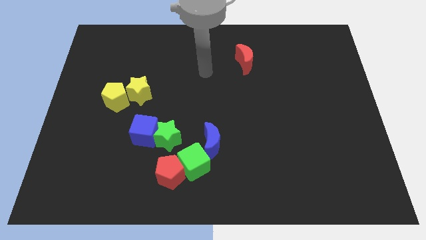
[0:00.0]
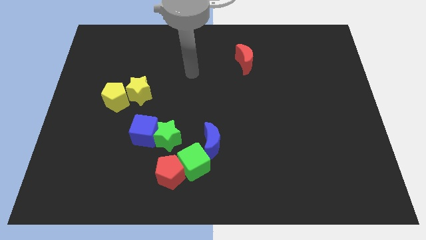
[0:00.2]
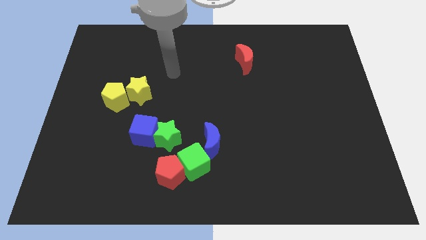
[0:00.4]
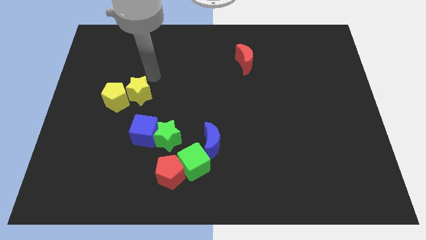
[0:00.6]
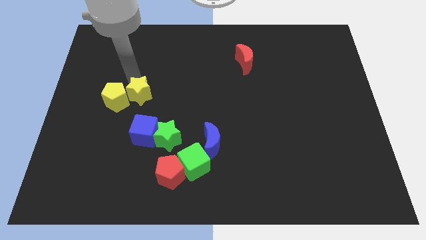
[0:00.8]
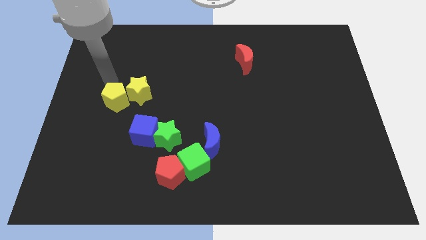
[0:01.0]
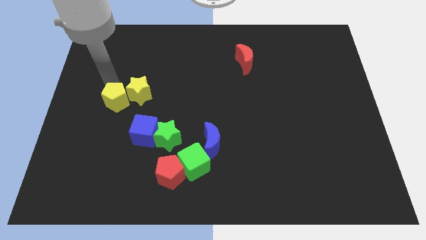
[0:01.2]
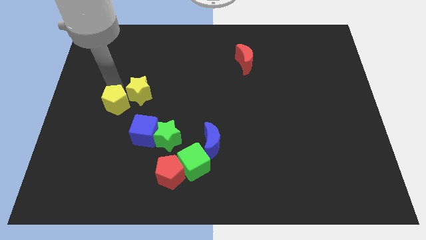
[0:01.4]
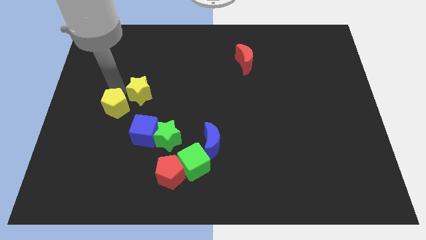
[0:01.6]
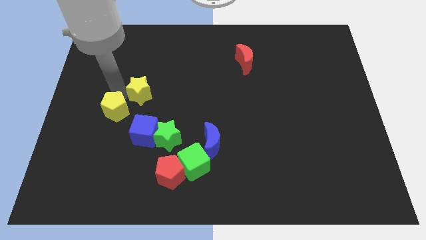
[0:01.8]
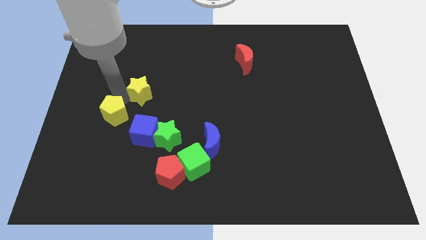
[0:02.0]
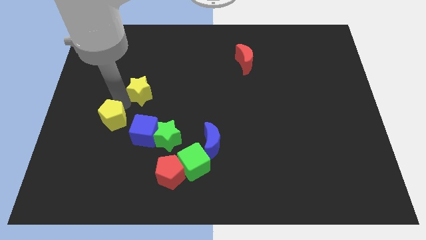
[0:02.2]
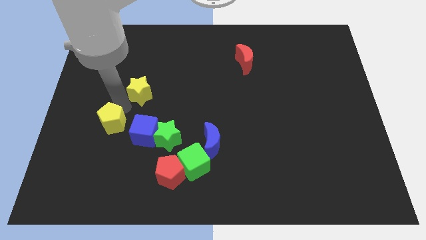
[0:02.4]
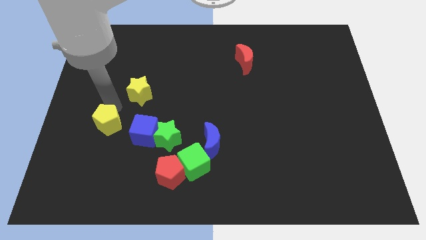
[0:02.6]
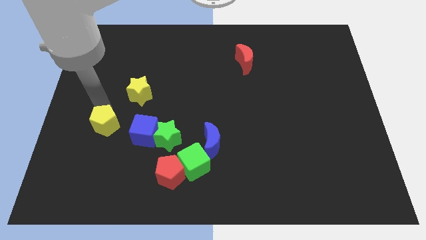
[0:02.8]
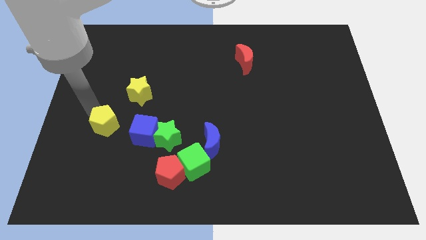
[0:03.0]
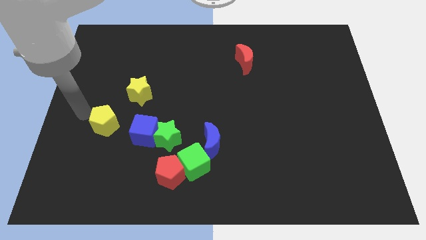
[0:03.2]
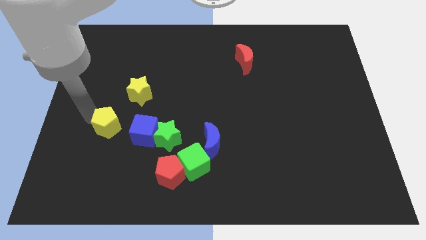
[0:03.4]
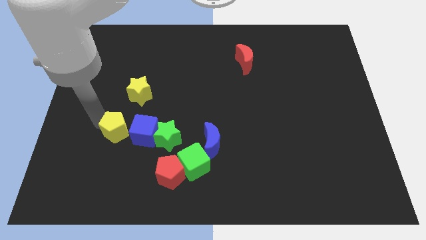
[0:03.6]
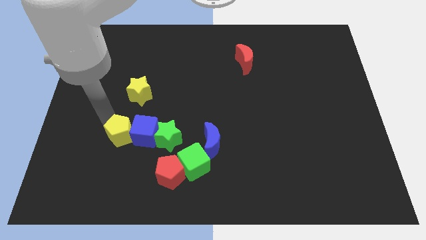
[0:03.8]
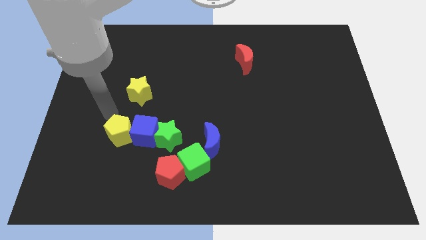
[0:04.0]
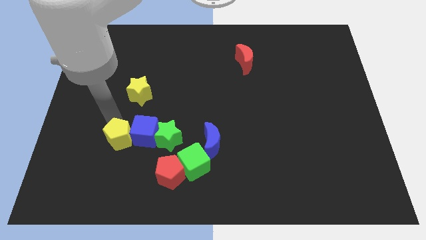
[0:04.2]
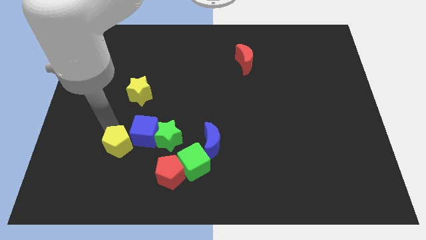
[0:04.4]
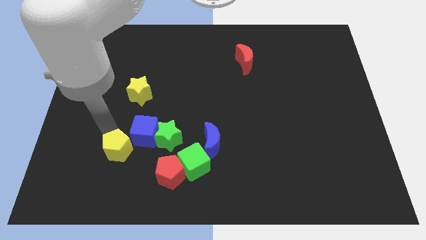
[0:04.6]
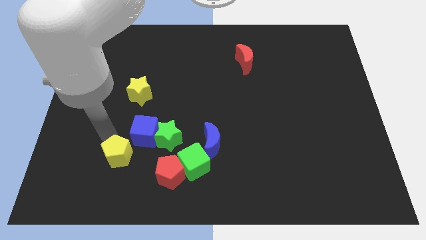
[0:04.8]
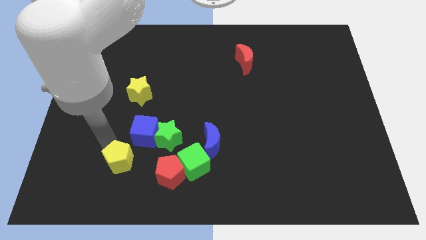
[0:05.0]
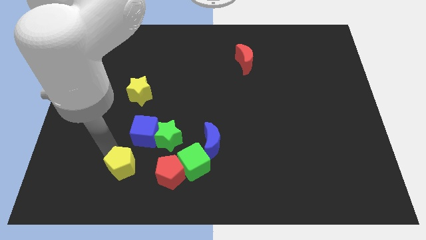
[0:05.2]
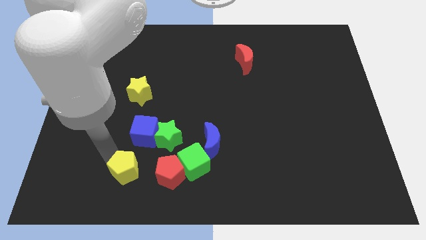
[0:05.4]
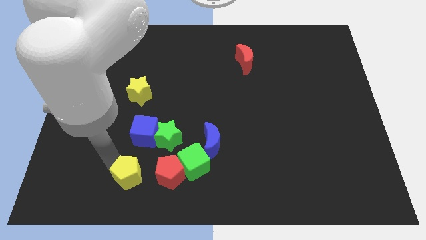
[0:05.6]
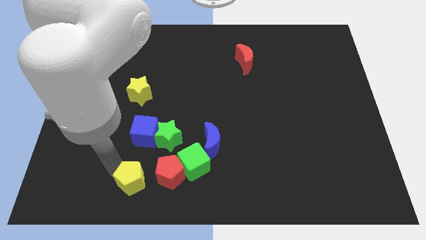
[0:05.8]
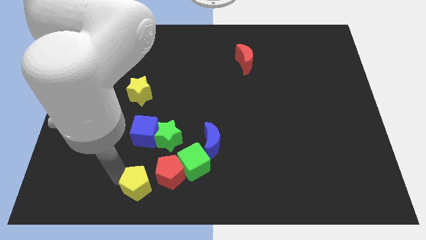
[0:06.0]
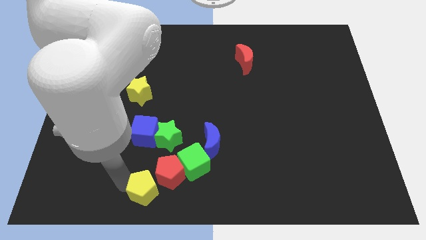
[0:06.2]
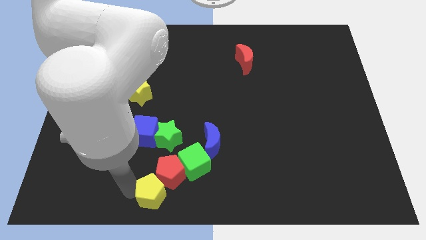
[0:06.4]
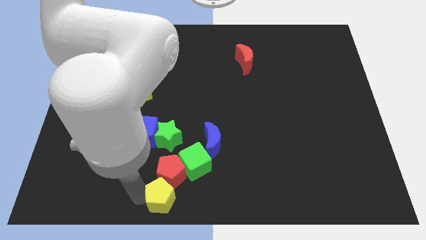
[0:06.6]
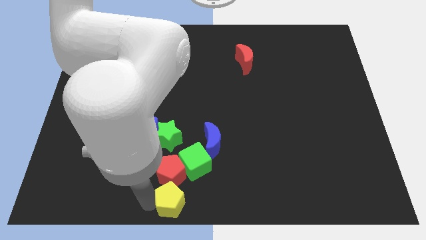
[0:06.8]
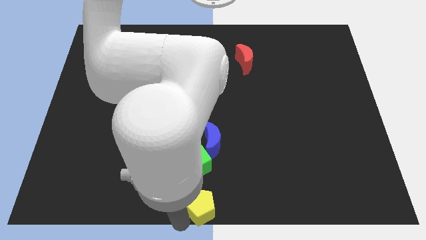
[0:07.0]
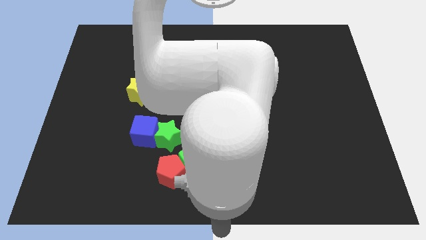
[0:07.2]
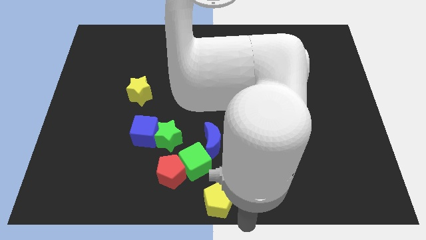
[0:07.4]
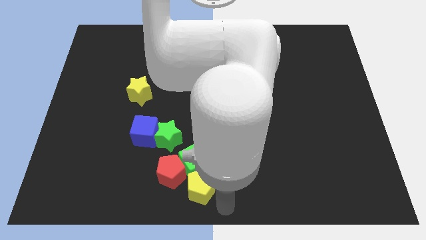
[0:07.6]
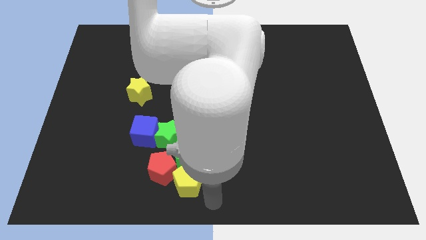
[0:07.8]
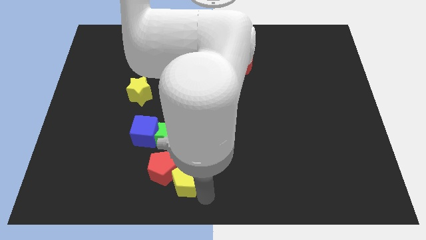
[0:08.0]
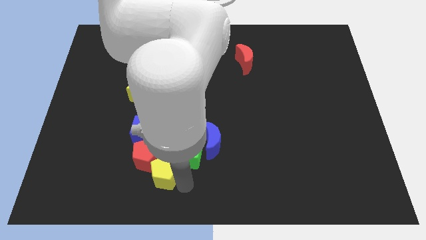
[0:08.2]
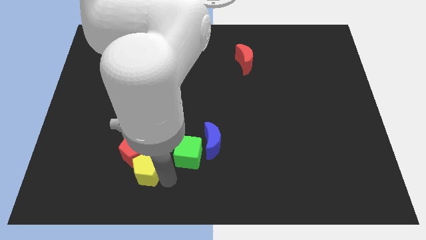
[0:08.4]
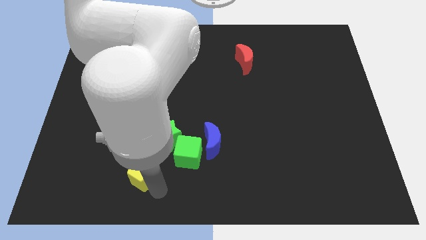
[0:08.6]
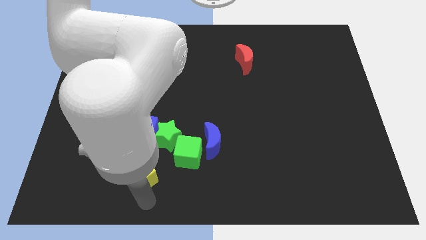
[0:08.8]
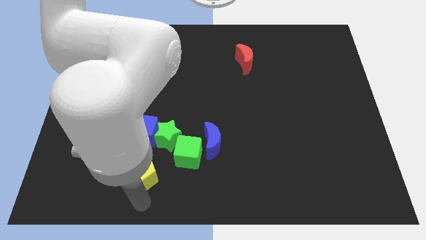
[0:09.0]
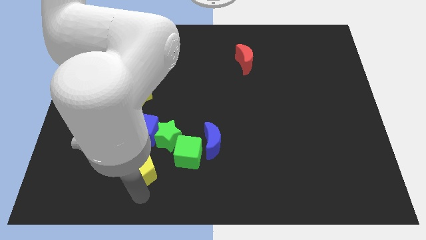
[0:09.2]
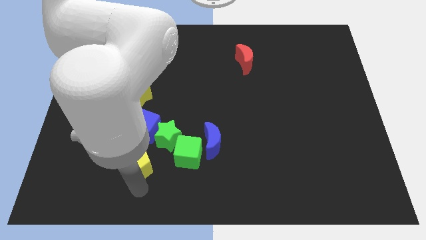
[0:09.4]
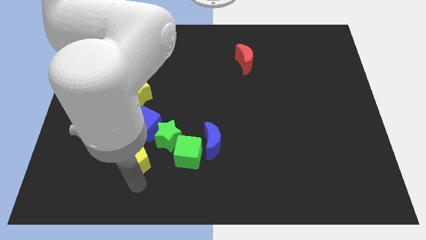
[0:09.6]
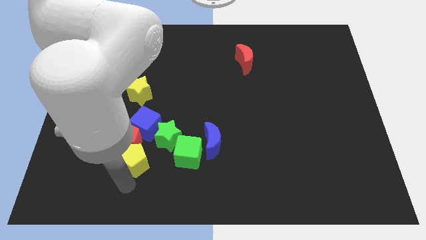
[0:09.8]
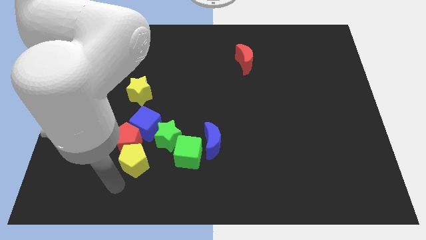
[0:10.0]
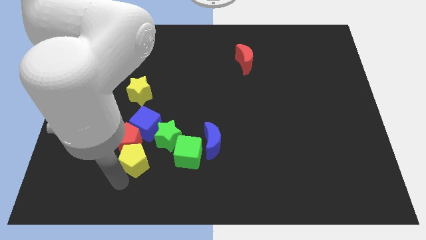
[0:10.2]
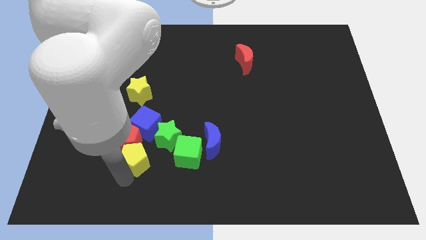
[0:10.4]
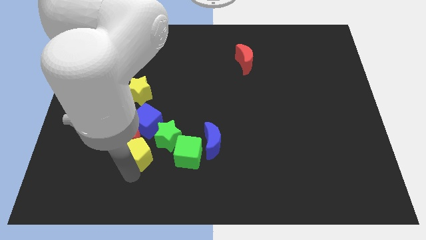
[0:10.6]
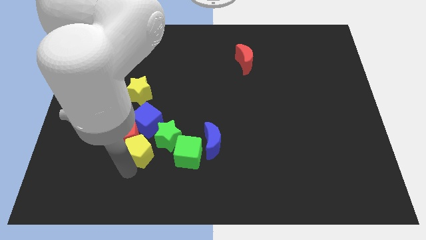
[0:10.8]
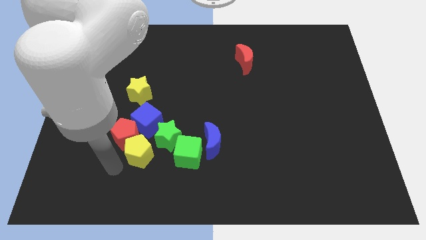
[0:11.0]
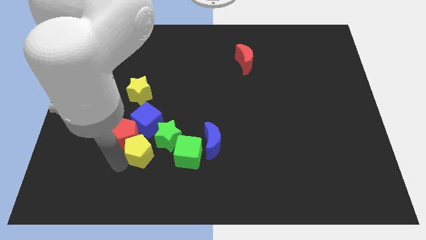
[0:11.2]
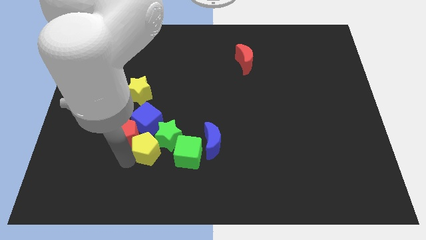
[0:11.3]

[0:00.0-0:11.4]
put the yellow pentagon to the green star

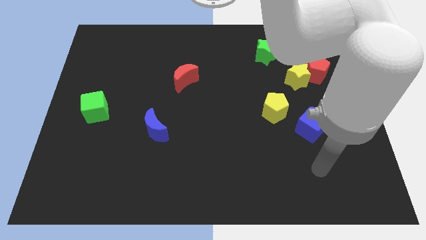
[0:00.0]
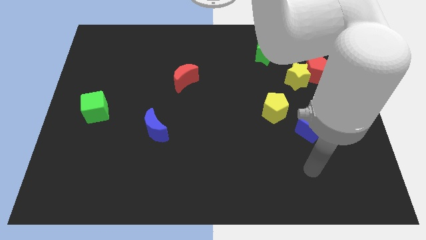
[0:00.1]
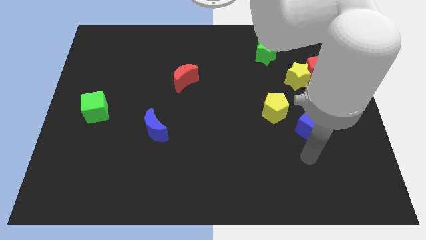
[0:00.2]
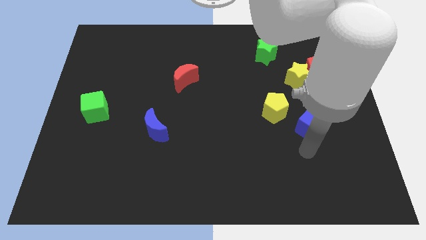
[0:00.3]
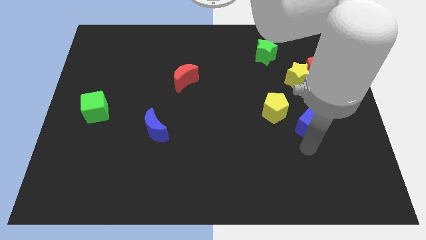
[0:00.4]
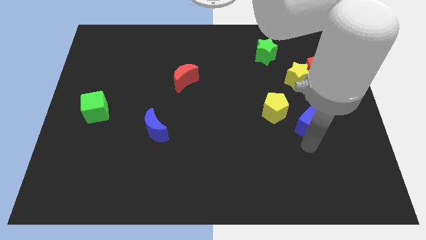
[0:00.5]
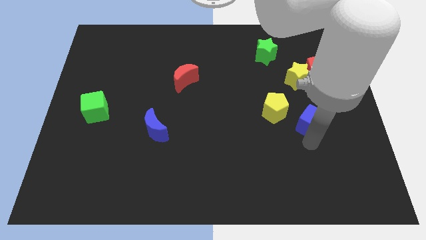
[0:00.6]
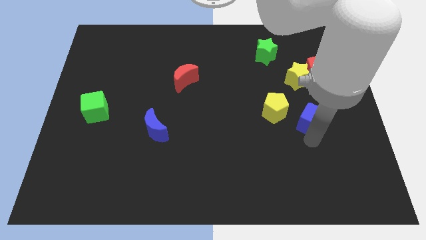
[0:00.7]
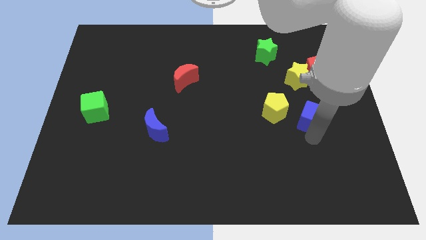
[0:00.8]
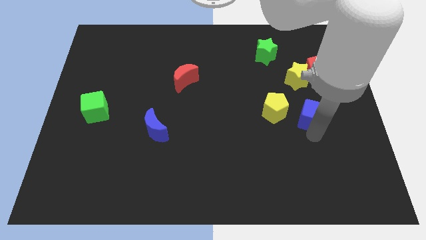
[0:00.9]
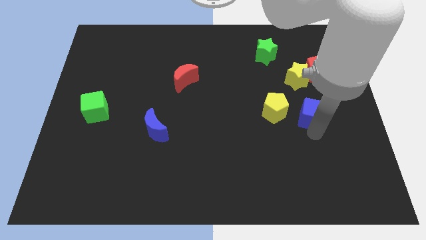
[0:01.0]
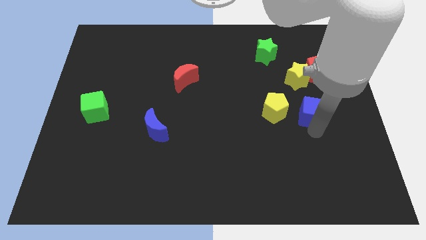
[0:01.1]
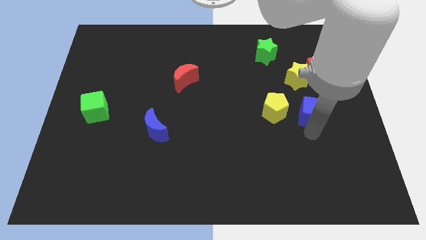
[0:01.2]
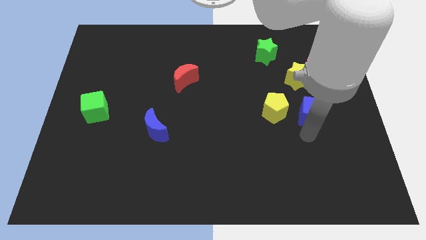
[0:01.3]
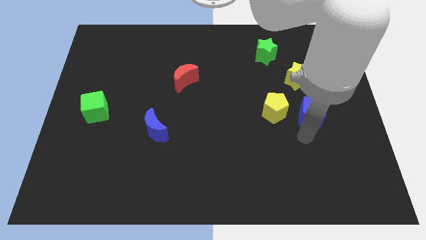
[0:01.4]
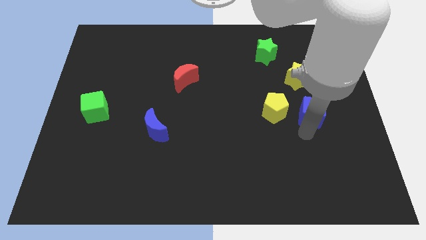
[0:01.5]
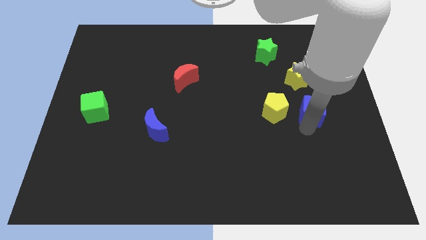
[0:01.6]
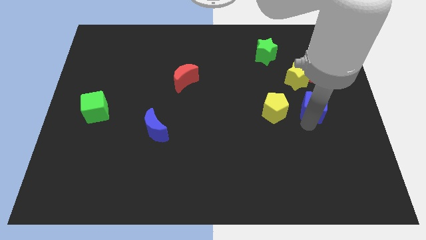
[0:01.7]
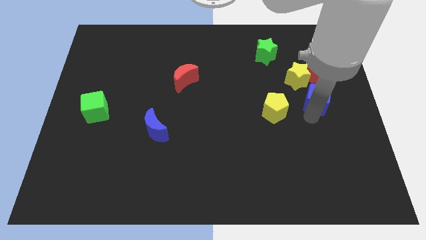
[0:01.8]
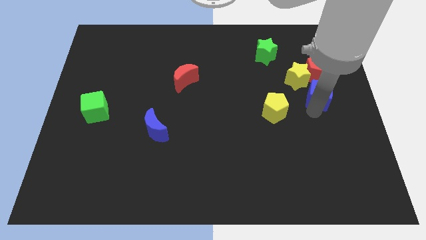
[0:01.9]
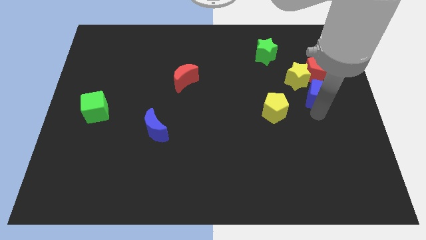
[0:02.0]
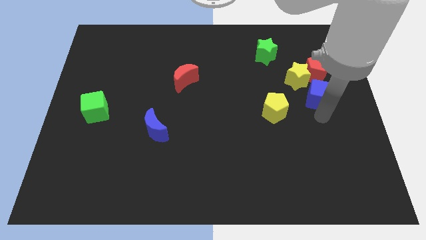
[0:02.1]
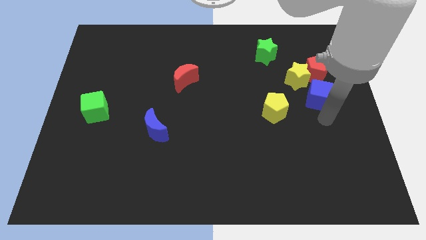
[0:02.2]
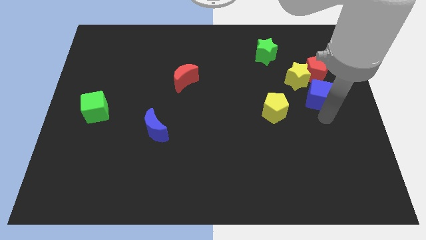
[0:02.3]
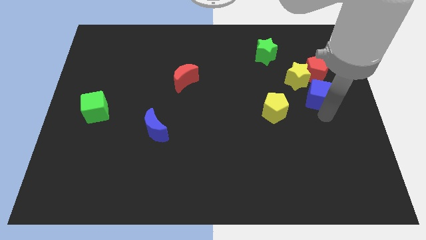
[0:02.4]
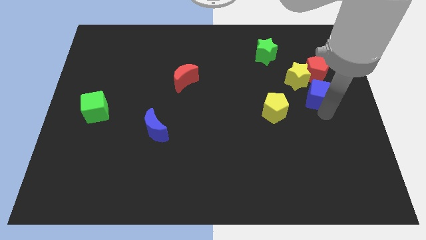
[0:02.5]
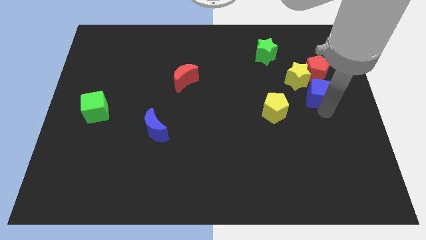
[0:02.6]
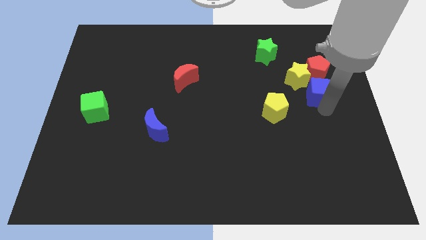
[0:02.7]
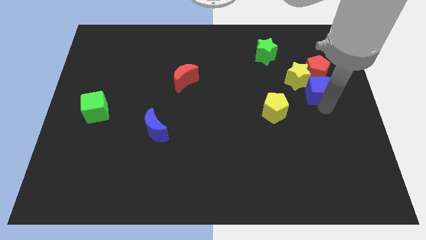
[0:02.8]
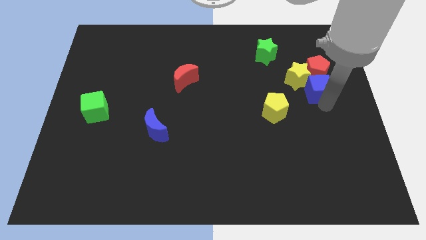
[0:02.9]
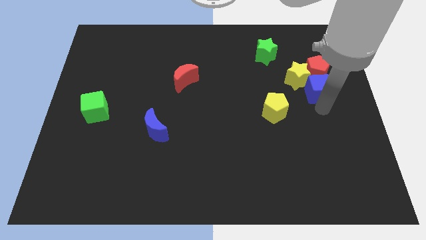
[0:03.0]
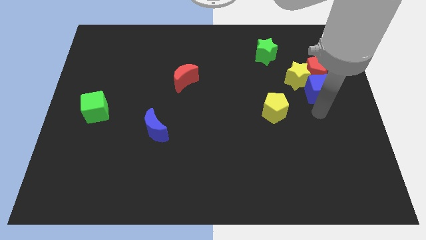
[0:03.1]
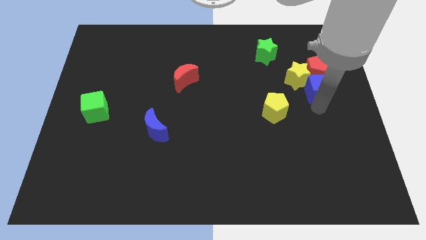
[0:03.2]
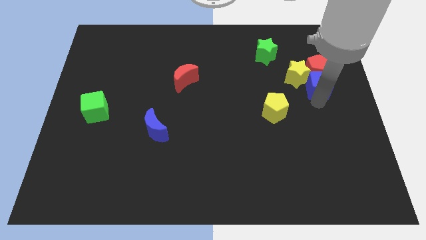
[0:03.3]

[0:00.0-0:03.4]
slide the blue cube close to the red pentagon
